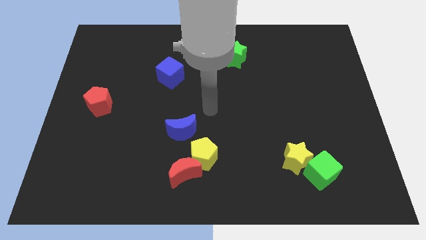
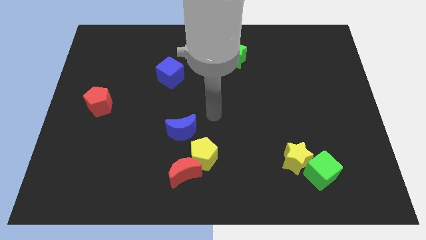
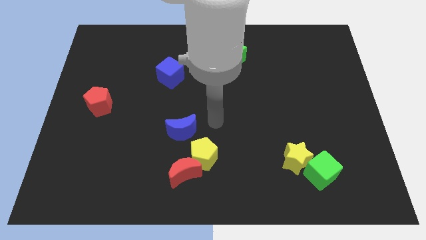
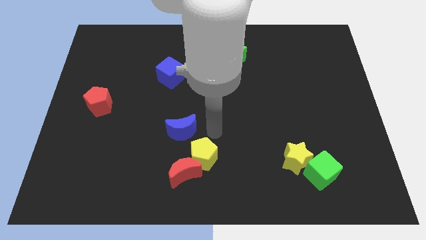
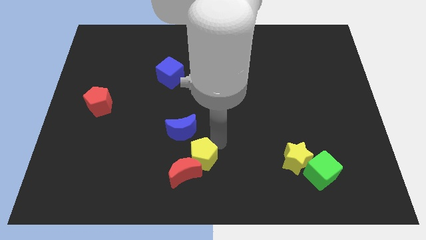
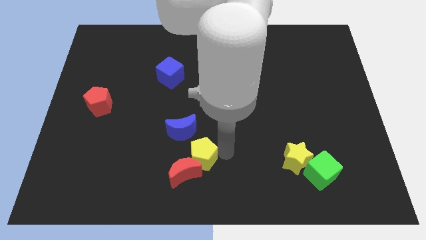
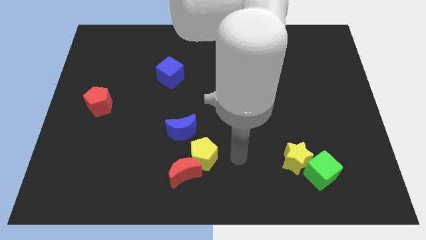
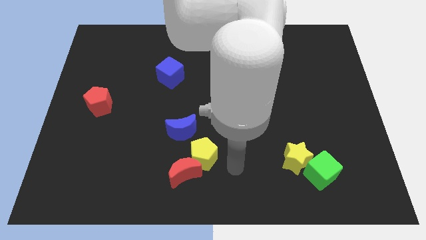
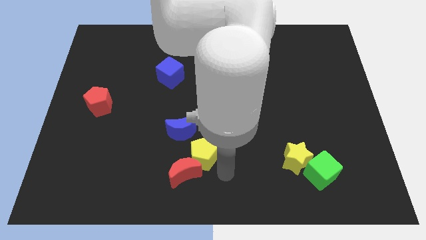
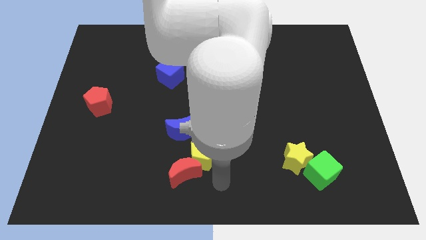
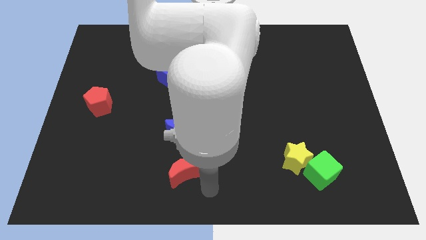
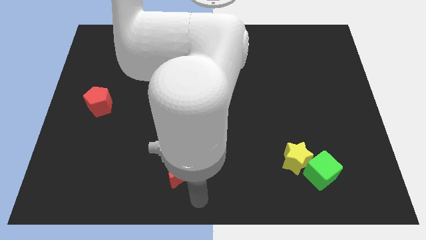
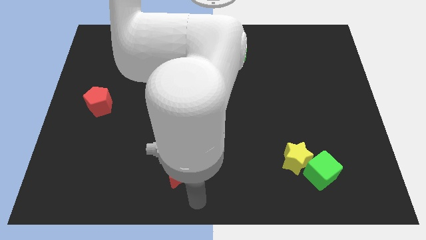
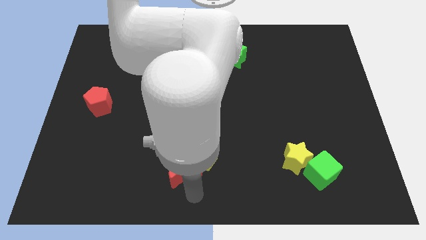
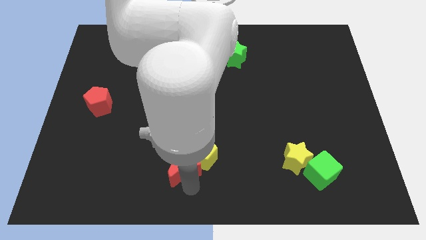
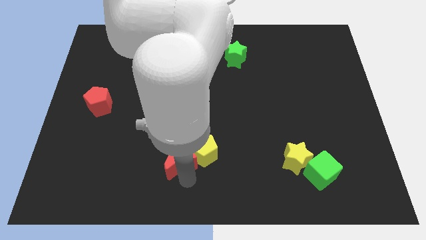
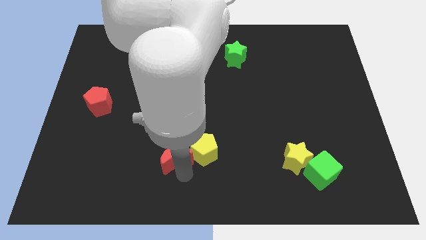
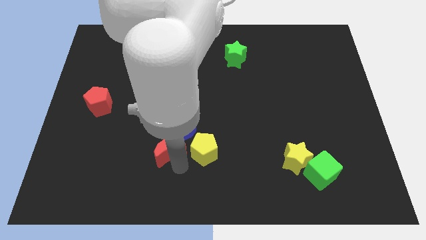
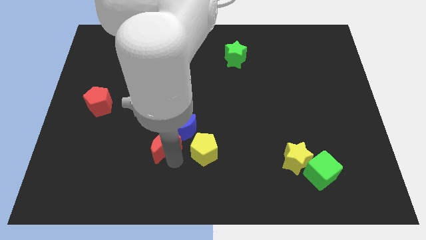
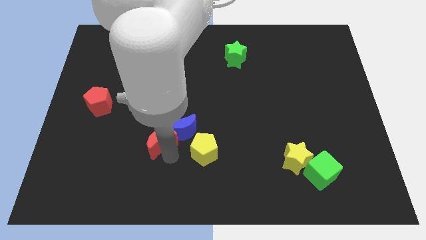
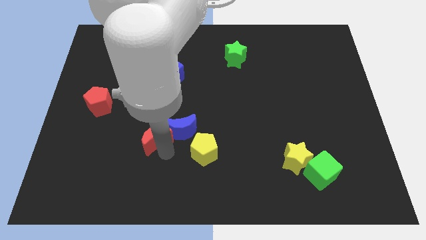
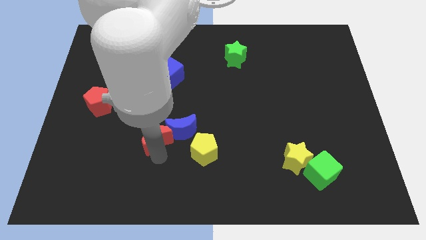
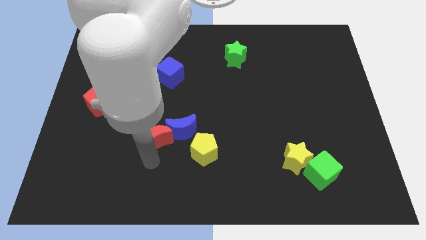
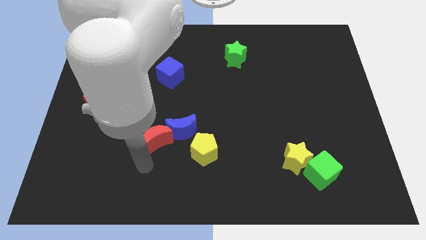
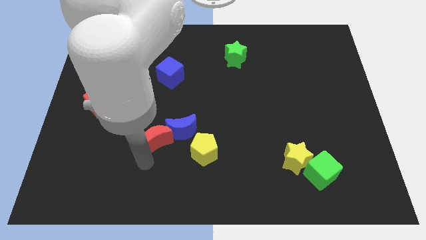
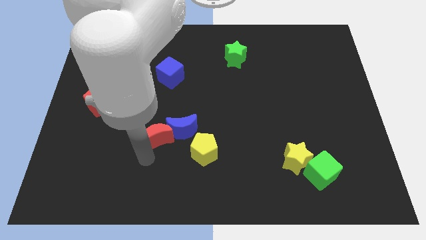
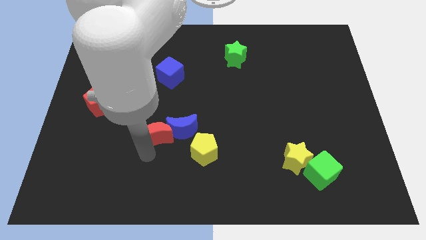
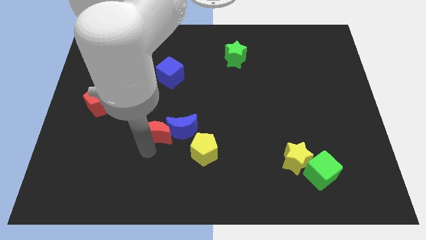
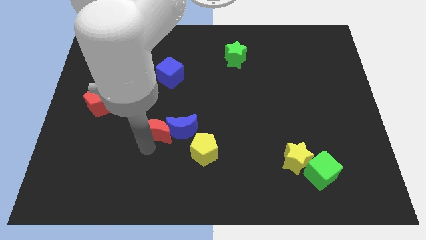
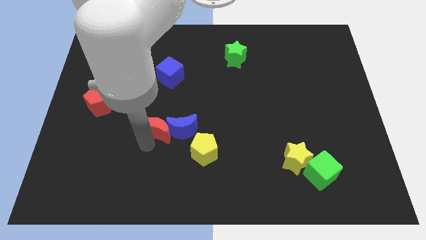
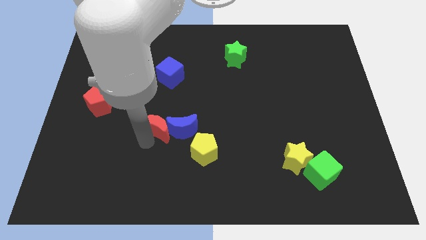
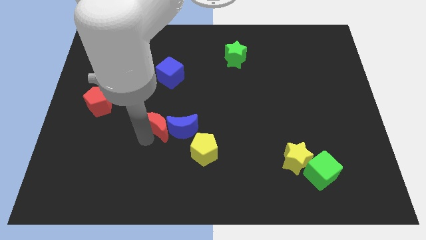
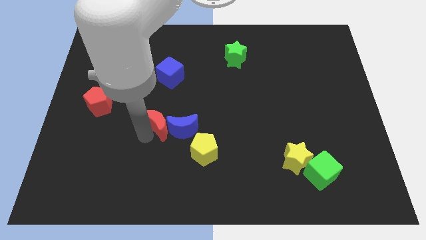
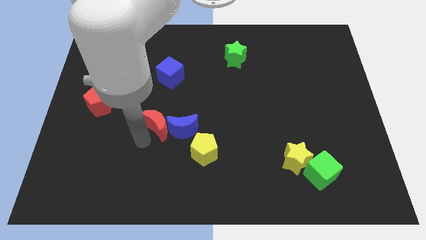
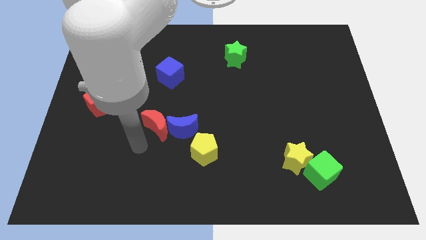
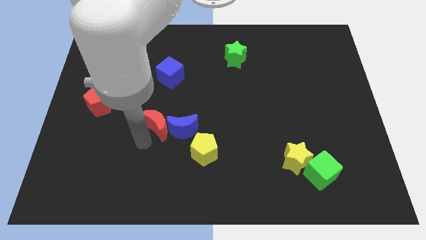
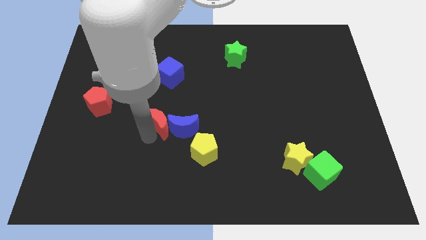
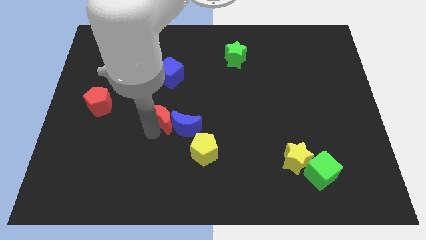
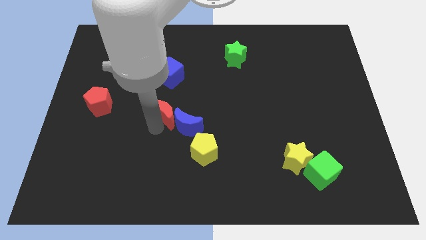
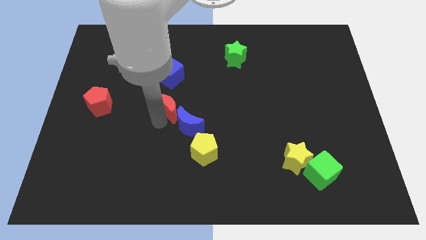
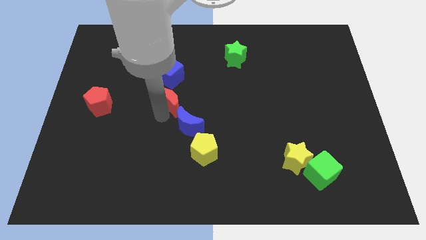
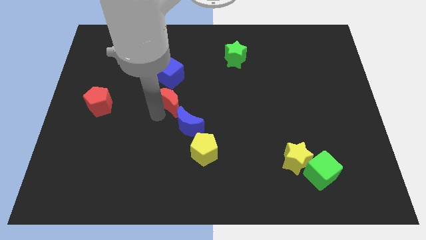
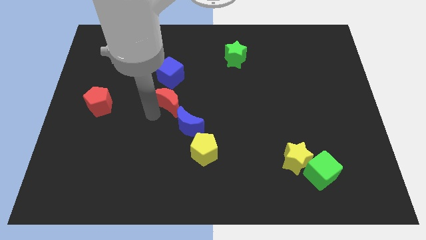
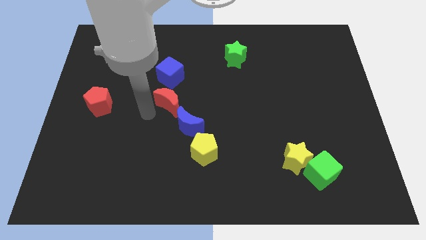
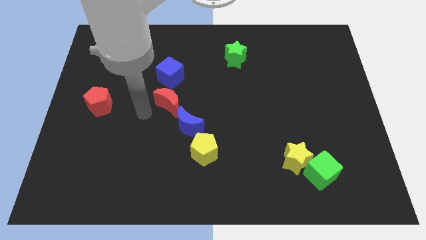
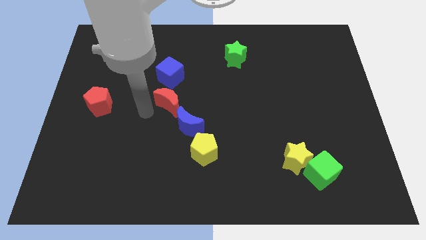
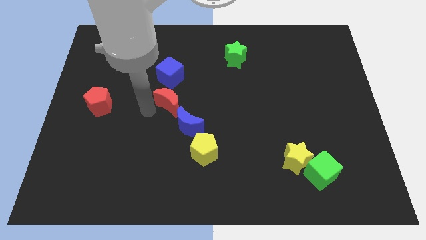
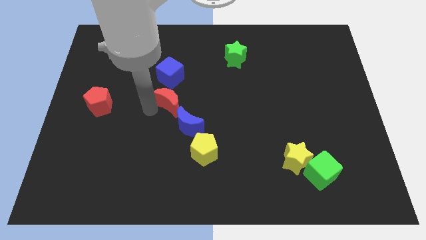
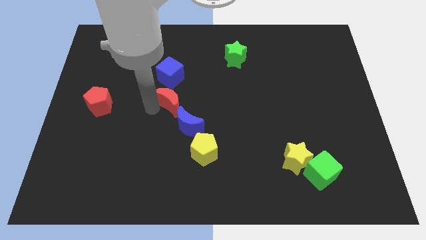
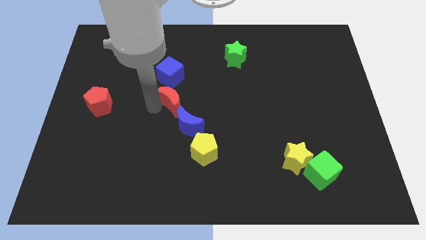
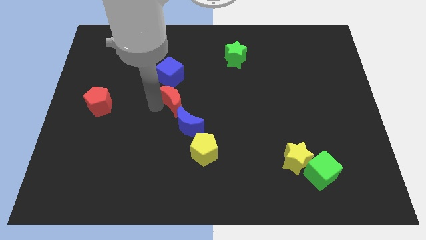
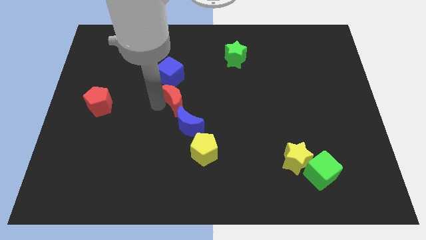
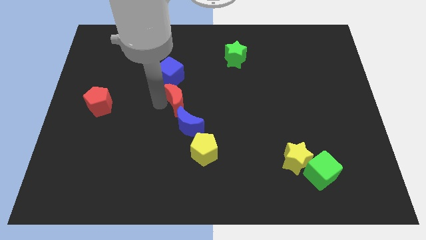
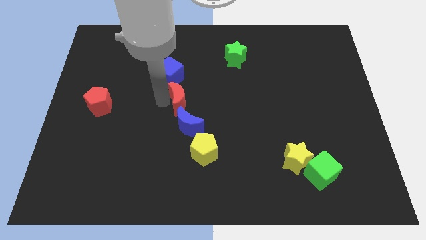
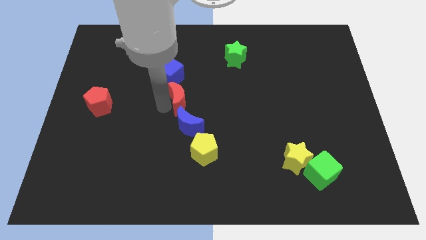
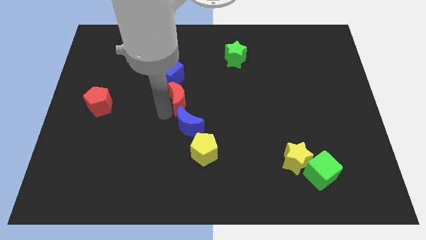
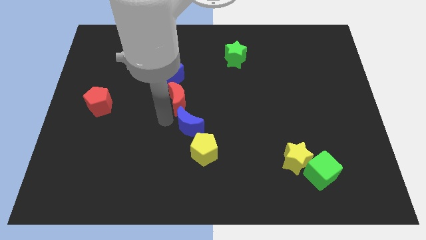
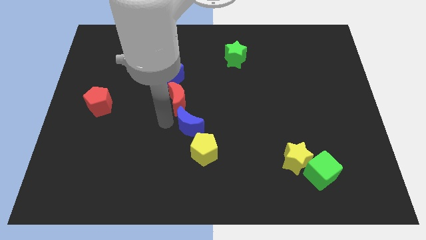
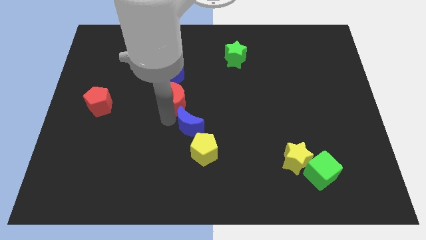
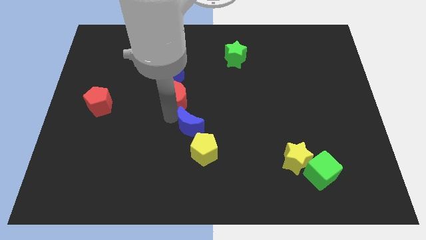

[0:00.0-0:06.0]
push the red moon up

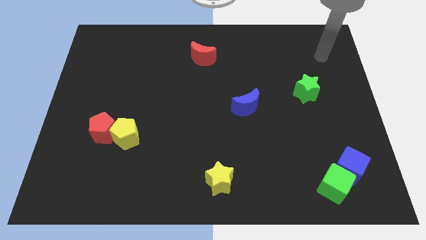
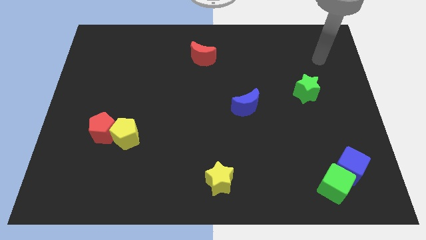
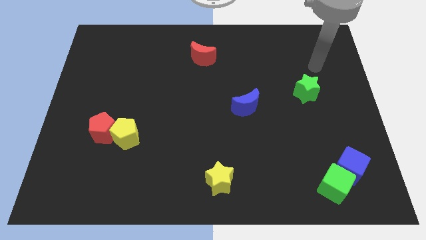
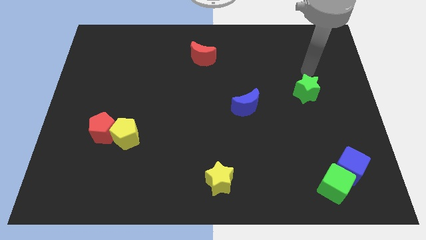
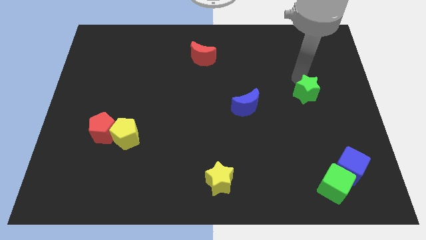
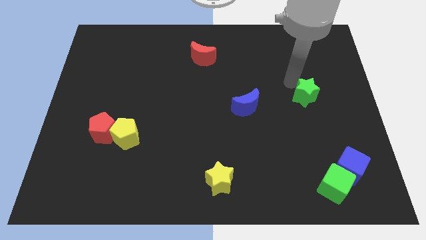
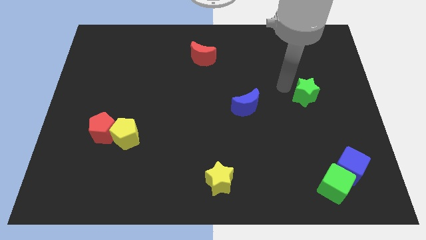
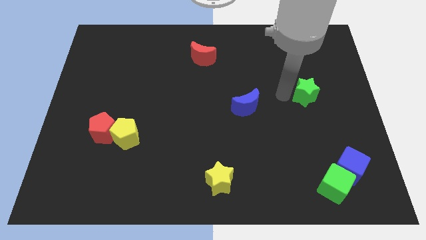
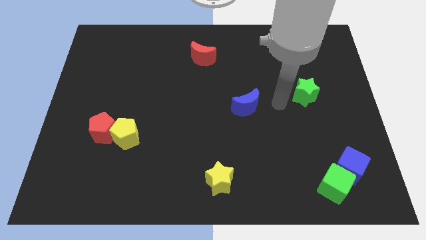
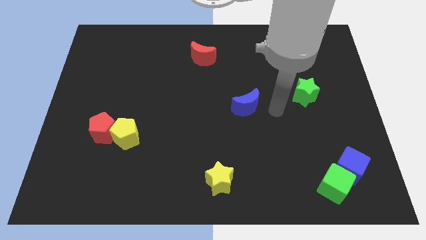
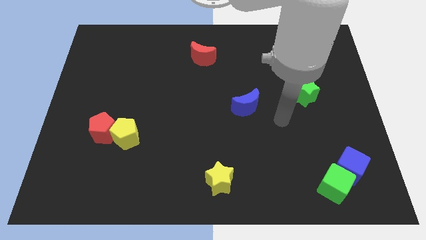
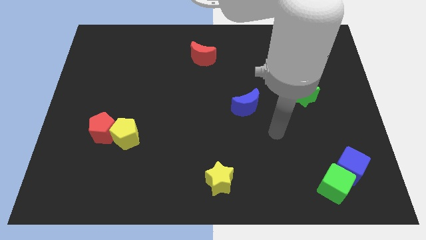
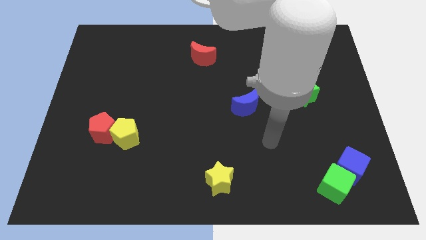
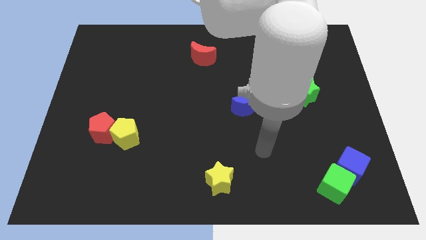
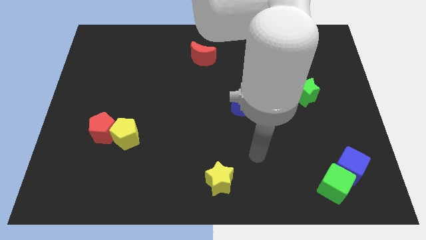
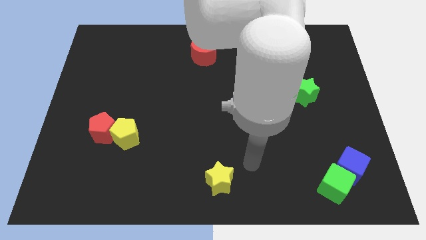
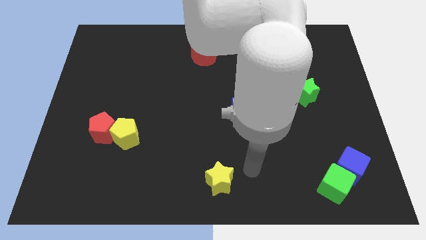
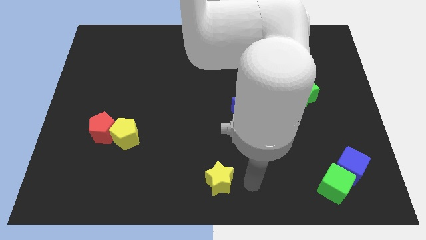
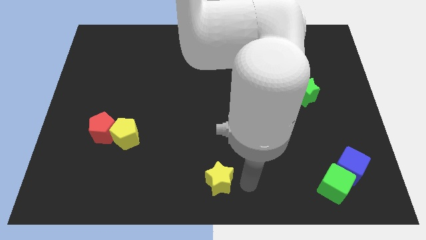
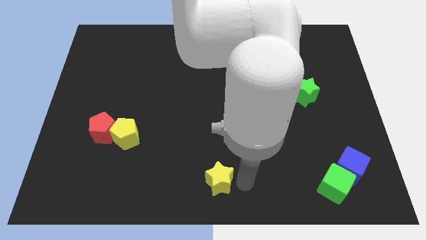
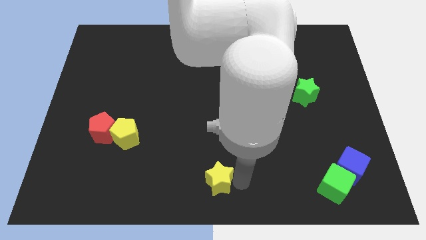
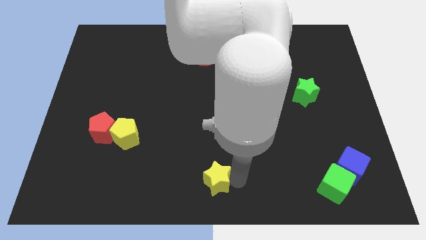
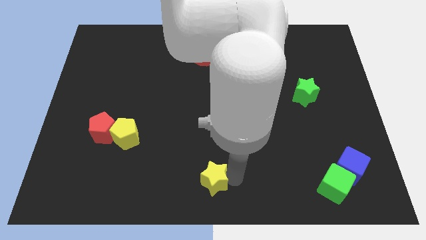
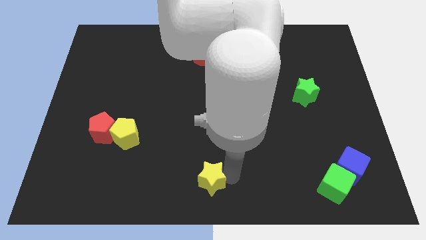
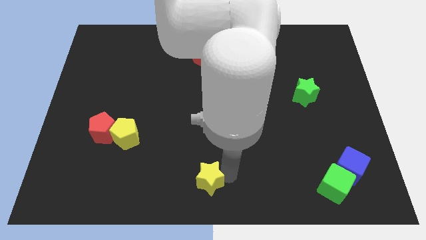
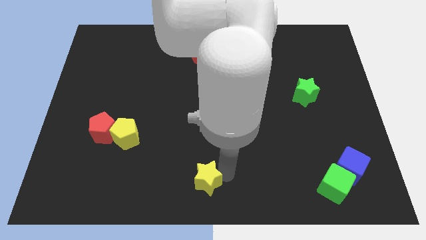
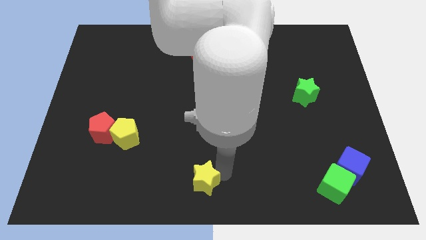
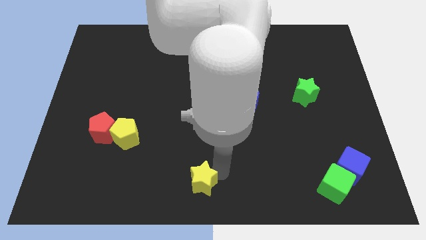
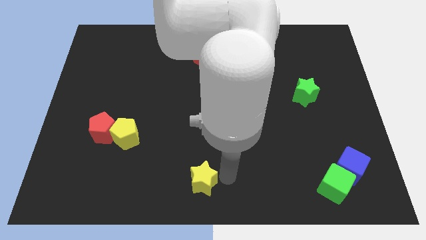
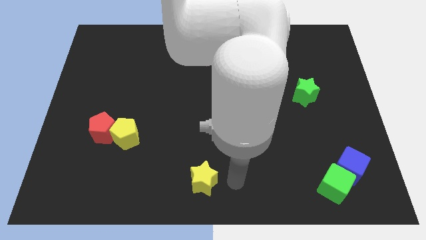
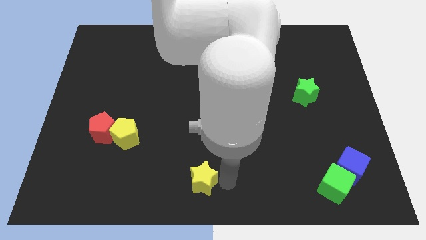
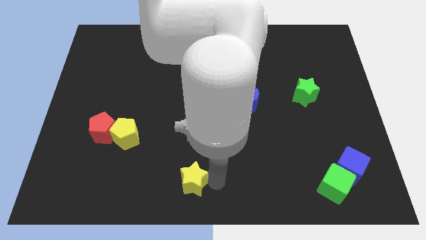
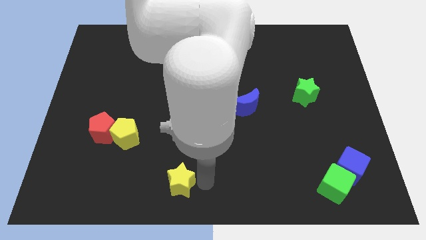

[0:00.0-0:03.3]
slightly move the yellow star left
